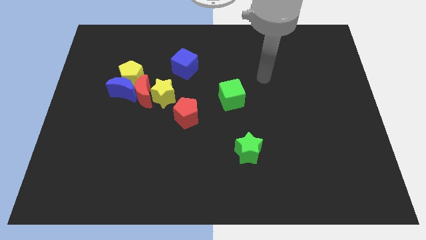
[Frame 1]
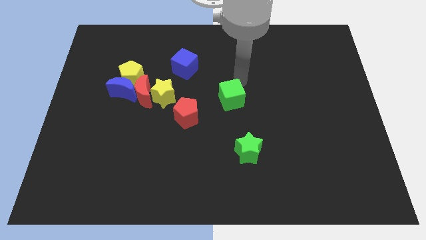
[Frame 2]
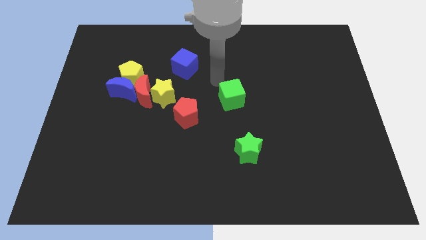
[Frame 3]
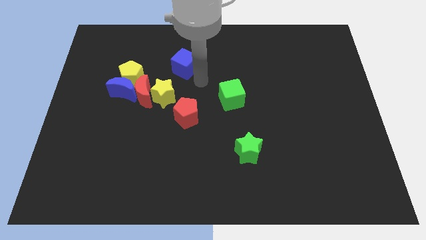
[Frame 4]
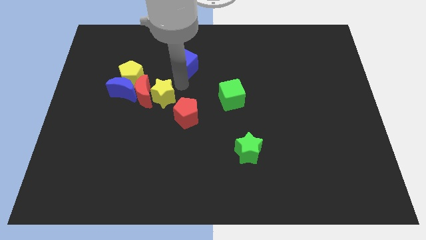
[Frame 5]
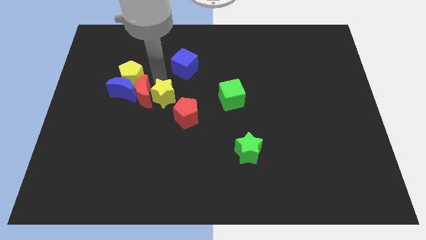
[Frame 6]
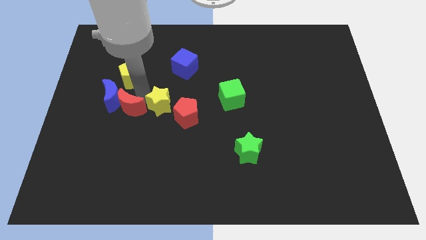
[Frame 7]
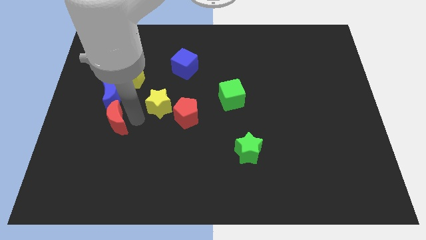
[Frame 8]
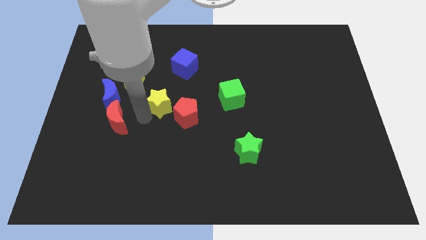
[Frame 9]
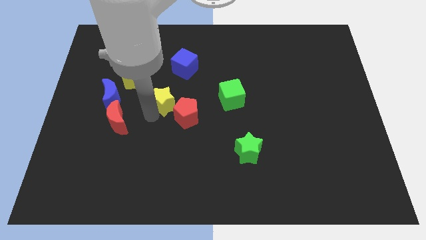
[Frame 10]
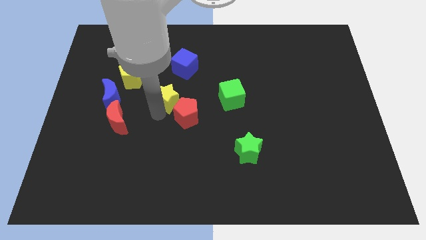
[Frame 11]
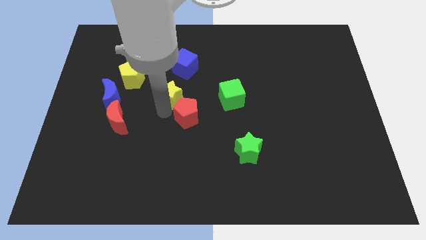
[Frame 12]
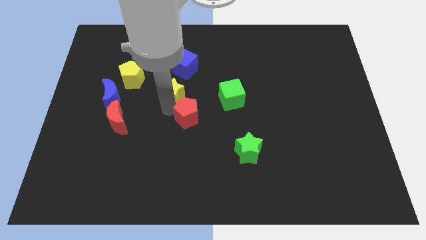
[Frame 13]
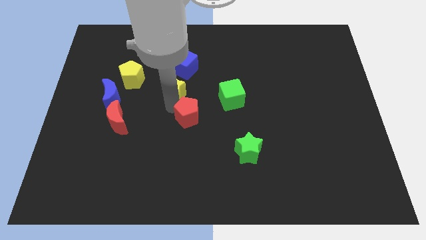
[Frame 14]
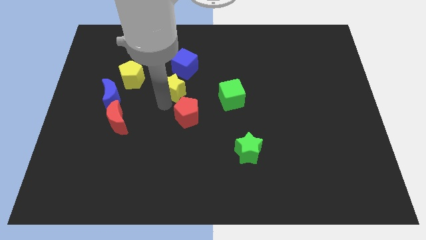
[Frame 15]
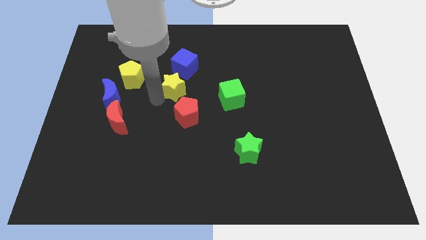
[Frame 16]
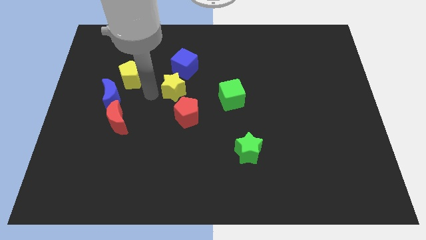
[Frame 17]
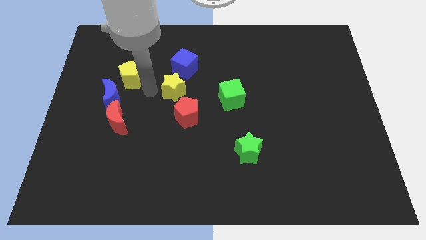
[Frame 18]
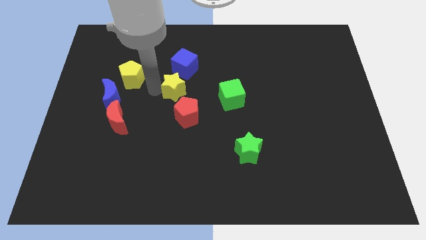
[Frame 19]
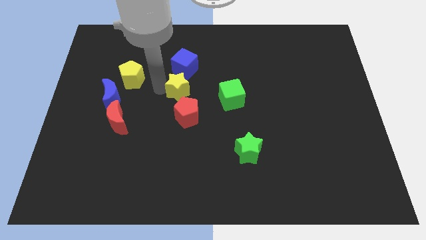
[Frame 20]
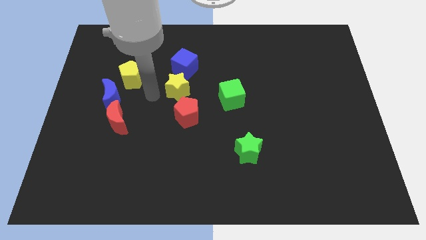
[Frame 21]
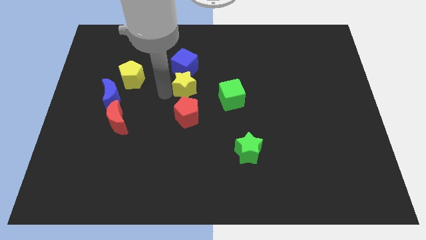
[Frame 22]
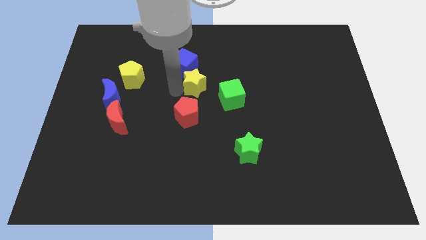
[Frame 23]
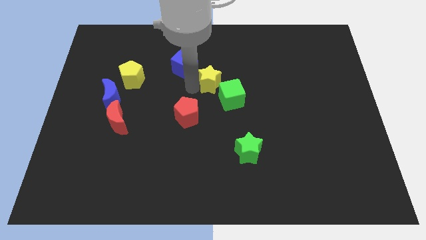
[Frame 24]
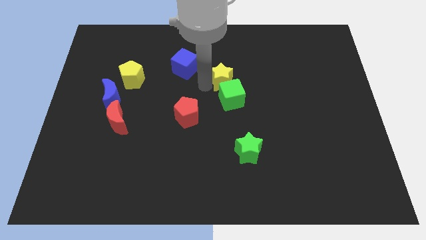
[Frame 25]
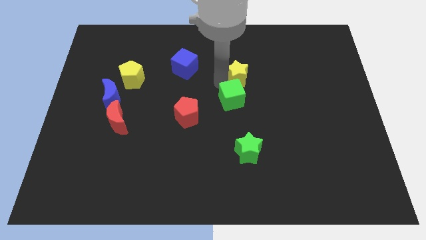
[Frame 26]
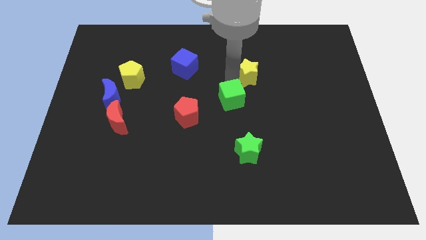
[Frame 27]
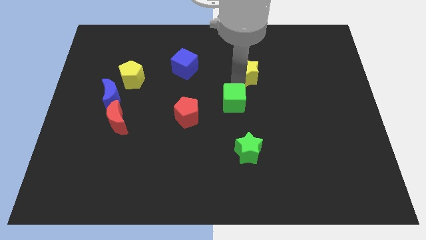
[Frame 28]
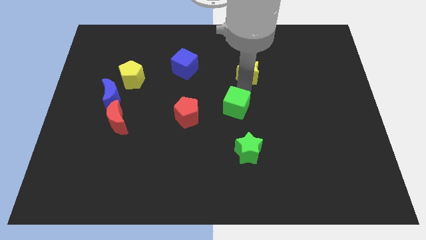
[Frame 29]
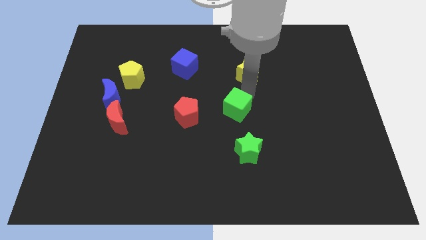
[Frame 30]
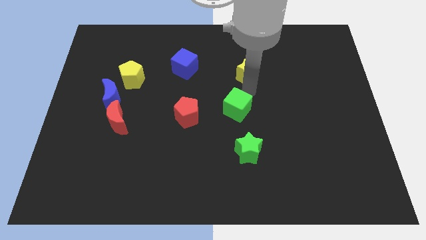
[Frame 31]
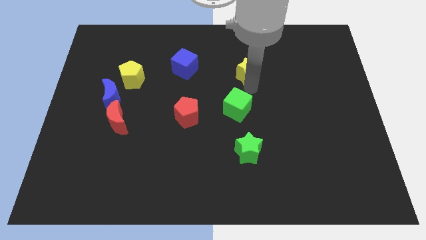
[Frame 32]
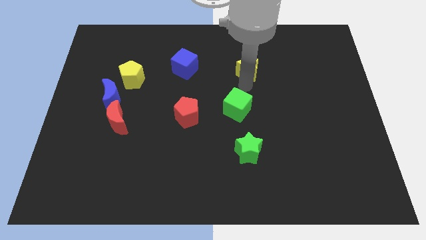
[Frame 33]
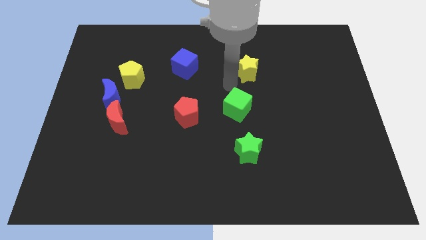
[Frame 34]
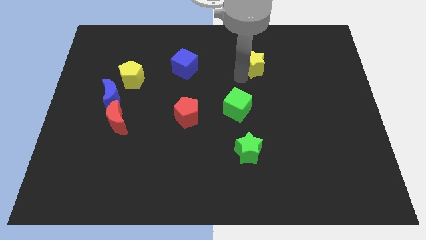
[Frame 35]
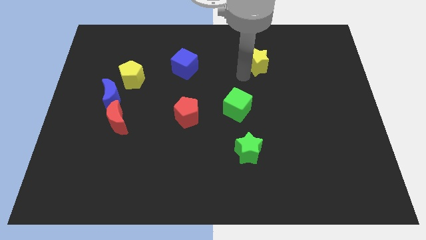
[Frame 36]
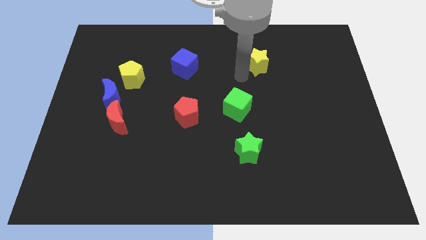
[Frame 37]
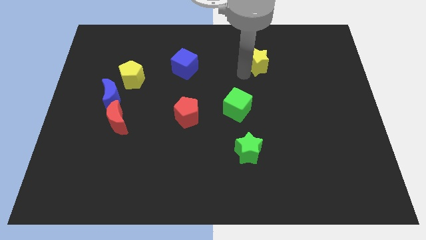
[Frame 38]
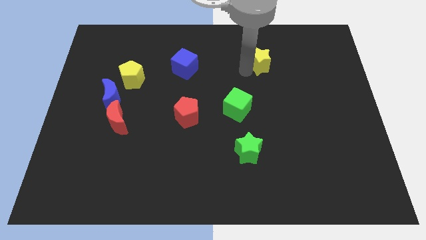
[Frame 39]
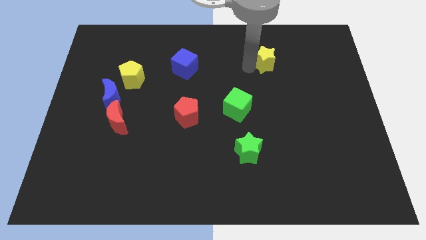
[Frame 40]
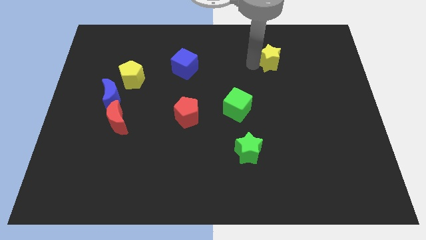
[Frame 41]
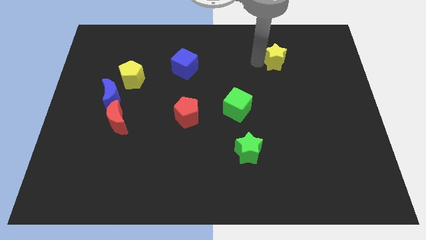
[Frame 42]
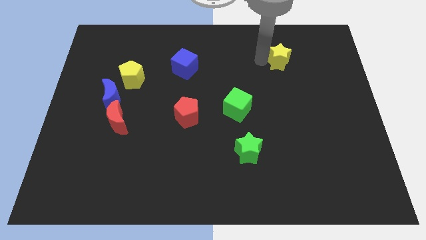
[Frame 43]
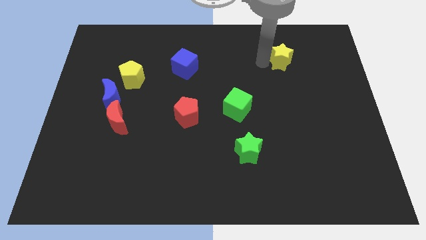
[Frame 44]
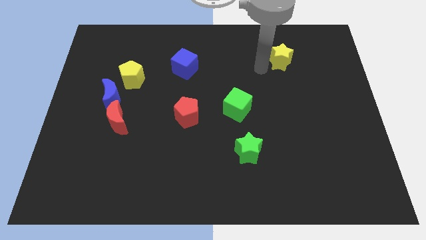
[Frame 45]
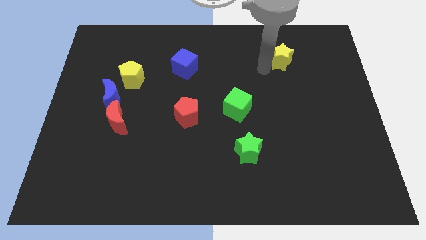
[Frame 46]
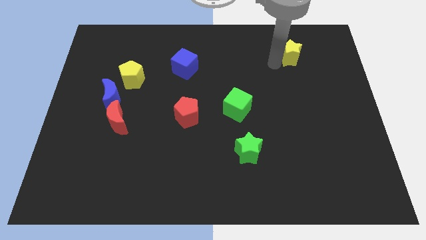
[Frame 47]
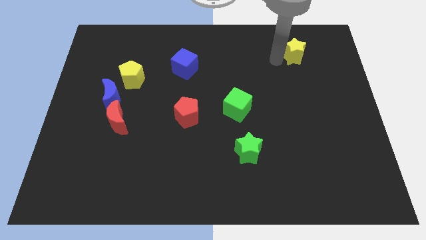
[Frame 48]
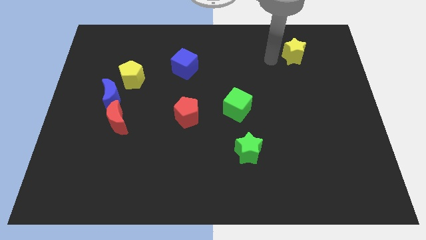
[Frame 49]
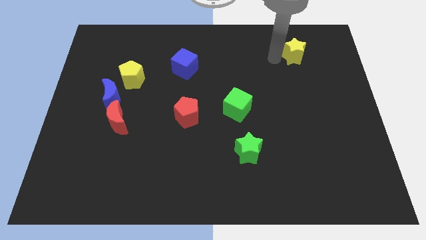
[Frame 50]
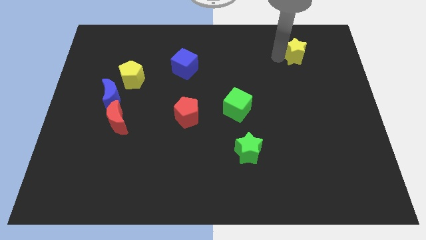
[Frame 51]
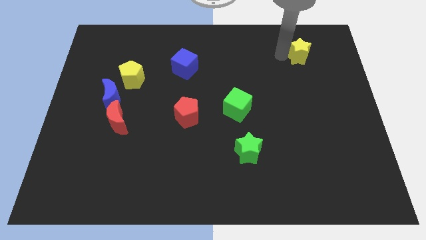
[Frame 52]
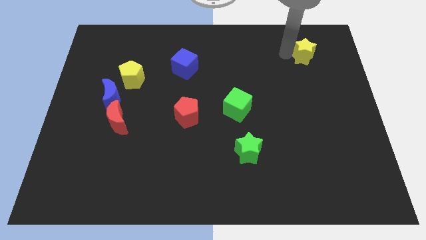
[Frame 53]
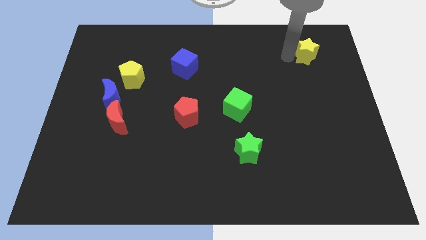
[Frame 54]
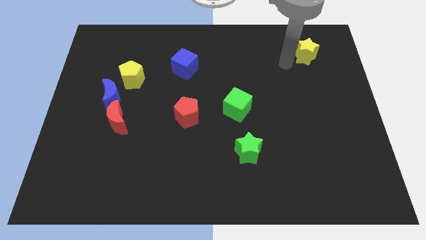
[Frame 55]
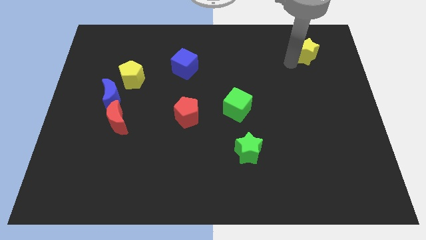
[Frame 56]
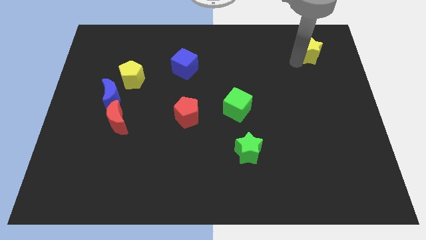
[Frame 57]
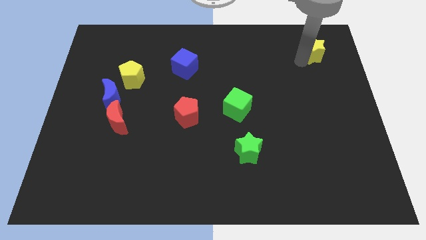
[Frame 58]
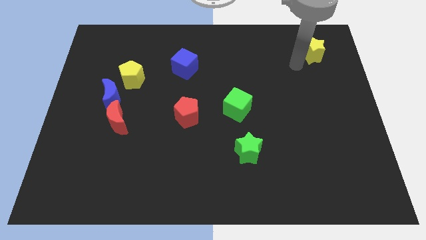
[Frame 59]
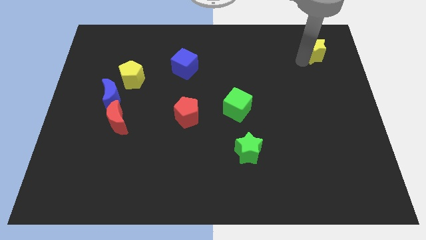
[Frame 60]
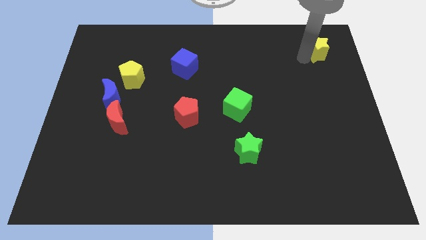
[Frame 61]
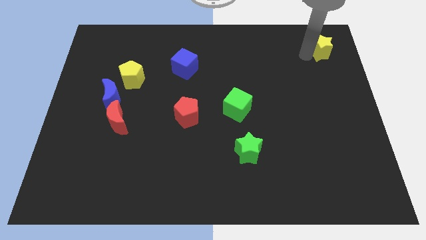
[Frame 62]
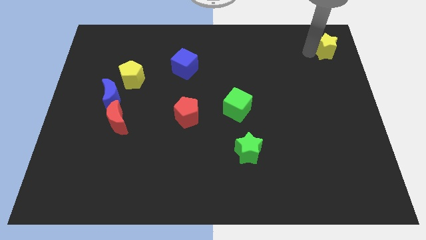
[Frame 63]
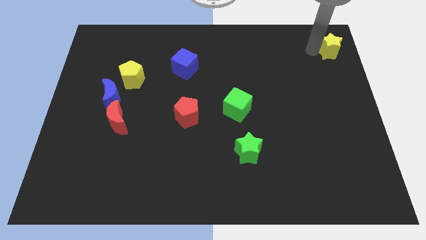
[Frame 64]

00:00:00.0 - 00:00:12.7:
put the yellow star to the upper right corner
